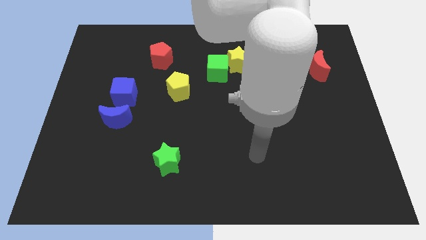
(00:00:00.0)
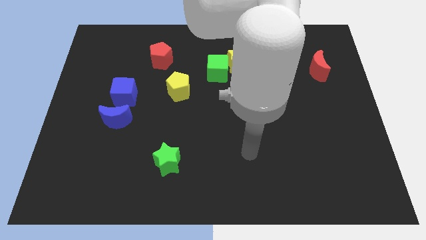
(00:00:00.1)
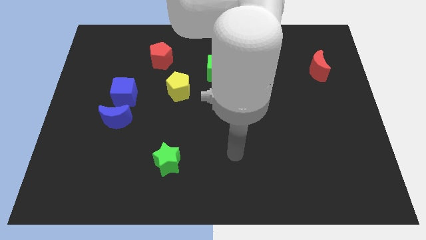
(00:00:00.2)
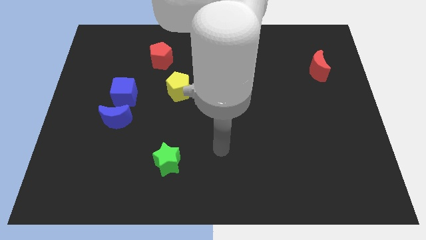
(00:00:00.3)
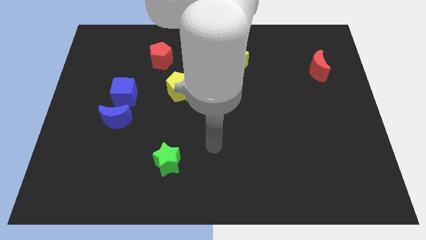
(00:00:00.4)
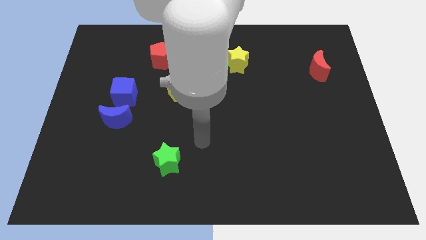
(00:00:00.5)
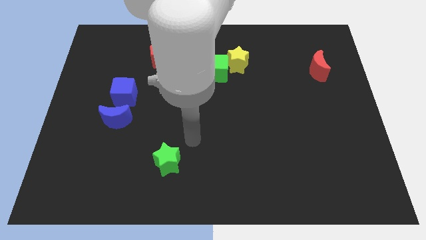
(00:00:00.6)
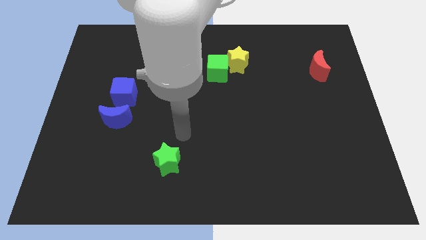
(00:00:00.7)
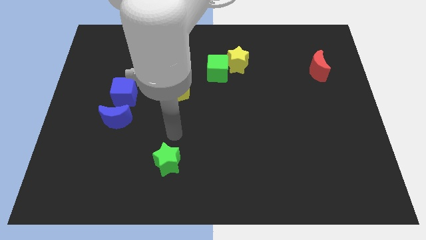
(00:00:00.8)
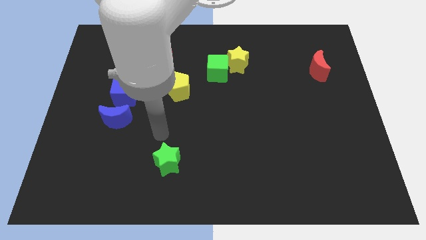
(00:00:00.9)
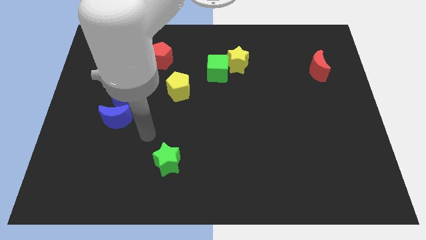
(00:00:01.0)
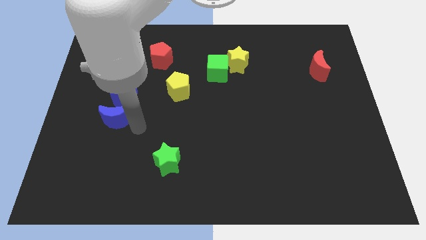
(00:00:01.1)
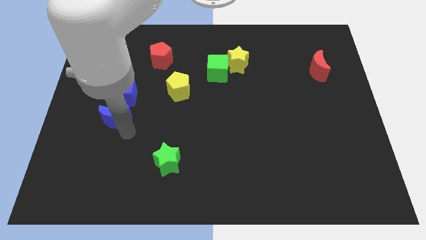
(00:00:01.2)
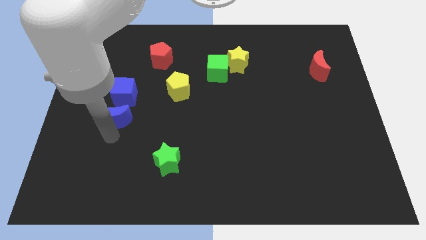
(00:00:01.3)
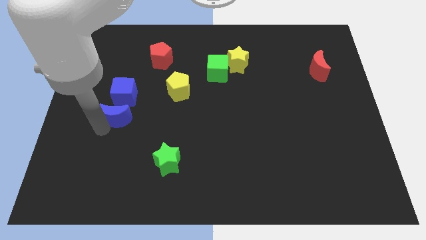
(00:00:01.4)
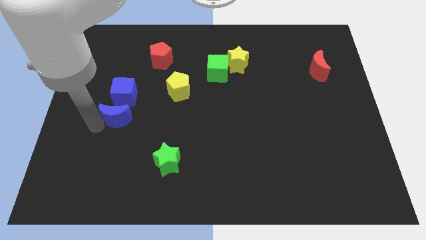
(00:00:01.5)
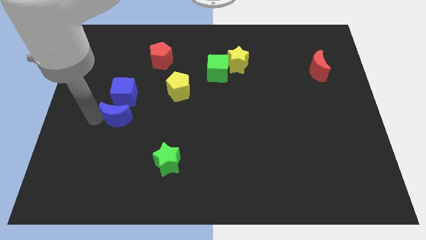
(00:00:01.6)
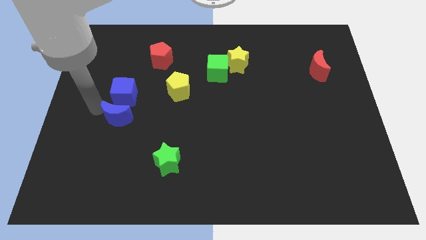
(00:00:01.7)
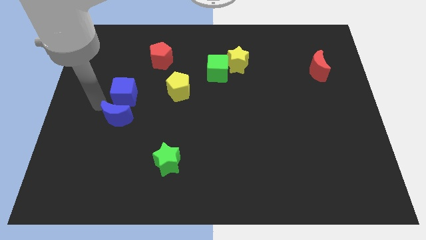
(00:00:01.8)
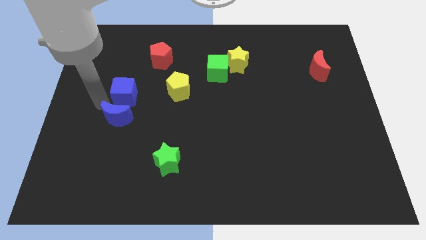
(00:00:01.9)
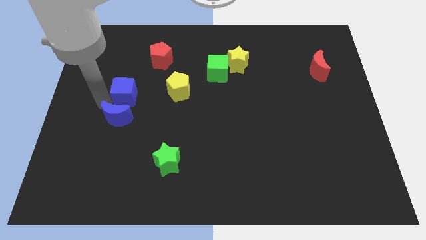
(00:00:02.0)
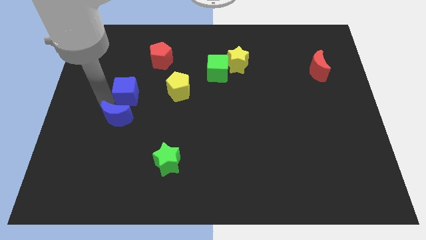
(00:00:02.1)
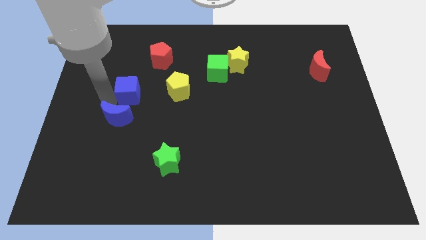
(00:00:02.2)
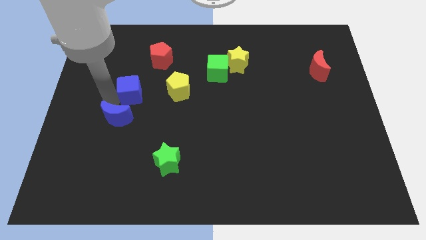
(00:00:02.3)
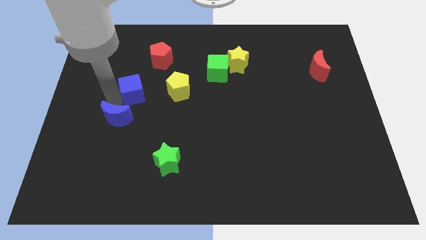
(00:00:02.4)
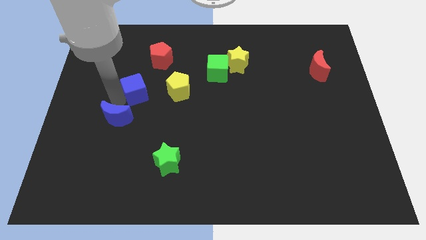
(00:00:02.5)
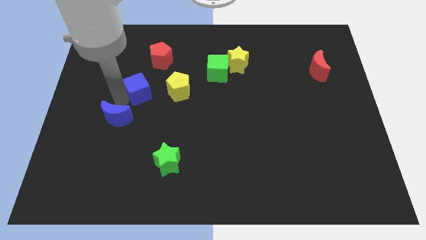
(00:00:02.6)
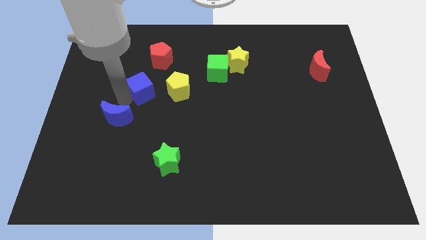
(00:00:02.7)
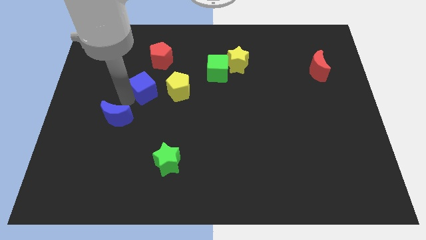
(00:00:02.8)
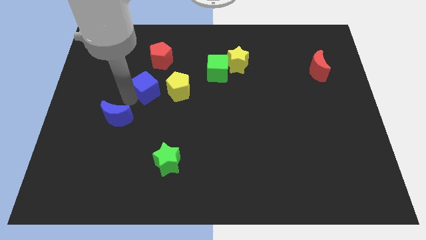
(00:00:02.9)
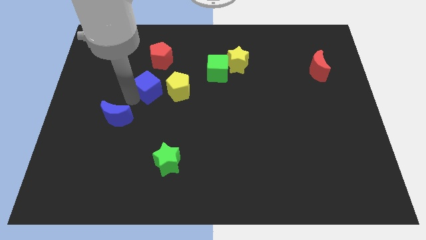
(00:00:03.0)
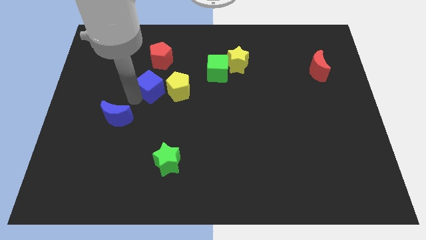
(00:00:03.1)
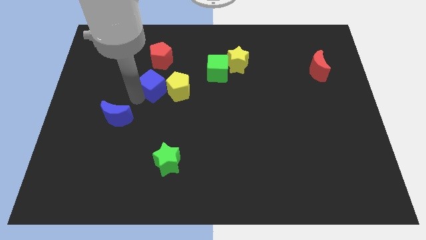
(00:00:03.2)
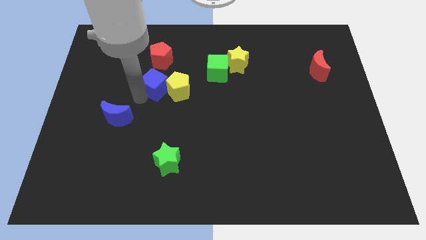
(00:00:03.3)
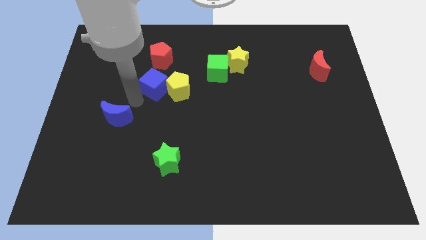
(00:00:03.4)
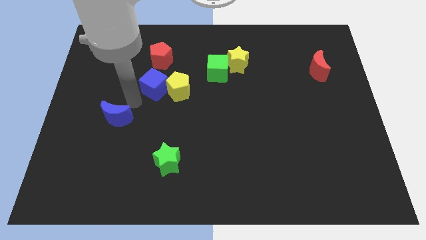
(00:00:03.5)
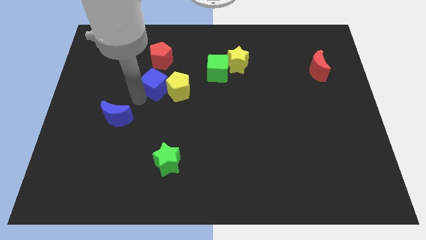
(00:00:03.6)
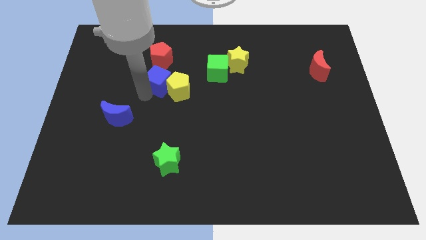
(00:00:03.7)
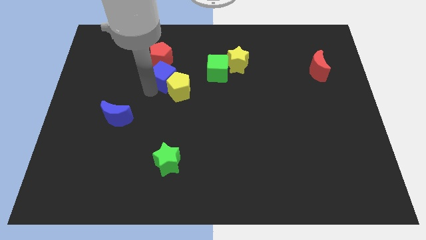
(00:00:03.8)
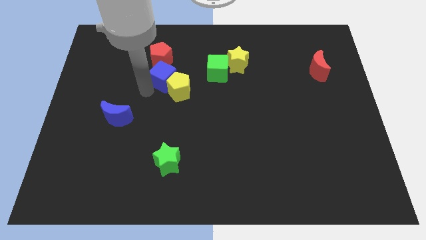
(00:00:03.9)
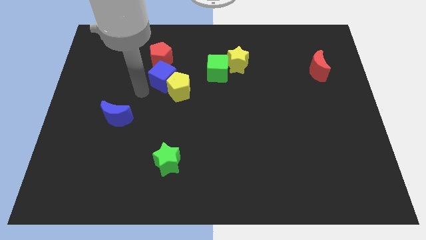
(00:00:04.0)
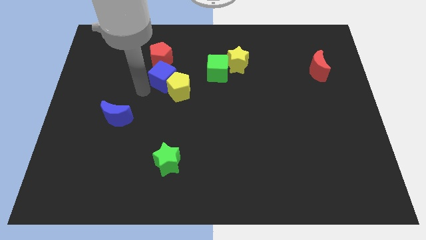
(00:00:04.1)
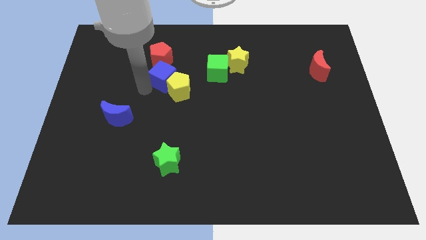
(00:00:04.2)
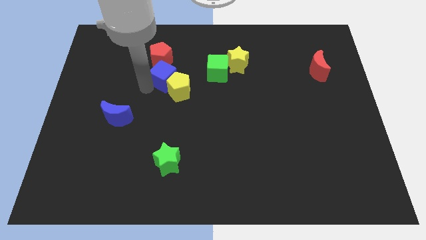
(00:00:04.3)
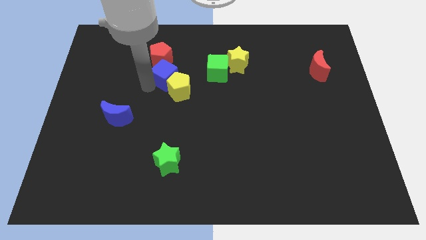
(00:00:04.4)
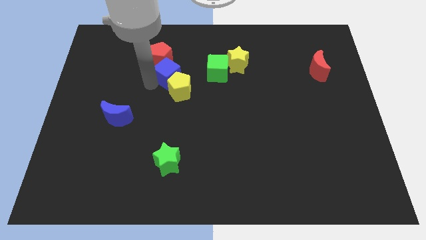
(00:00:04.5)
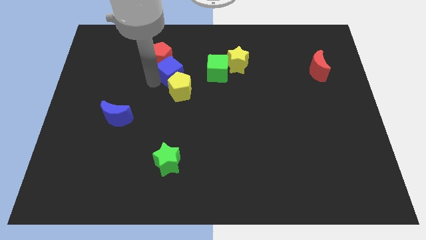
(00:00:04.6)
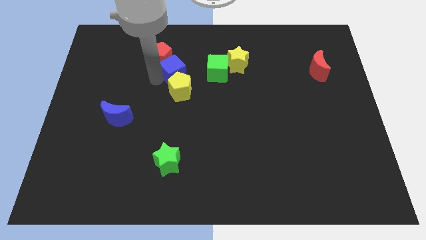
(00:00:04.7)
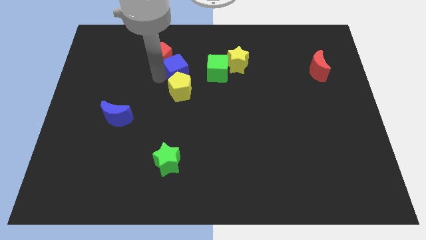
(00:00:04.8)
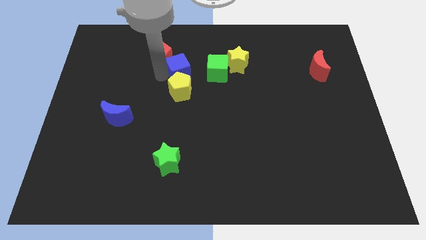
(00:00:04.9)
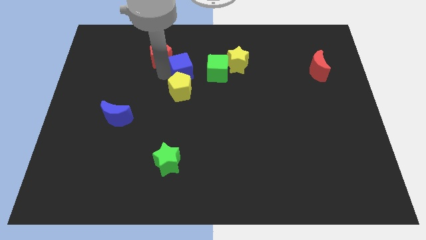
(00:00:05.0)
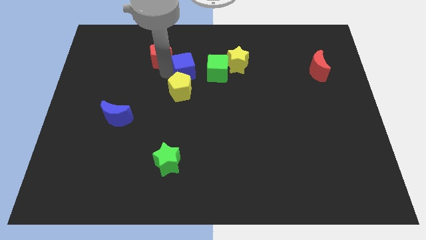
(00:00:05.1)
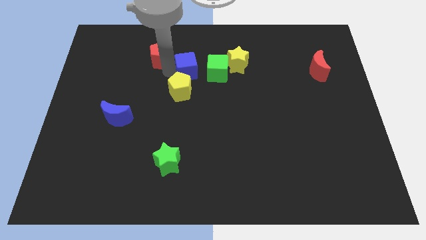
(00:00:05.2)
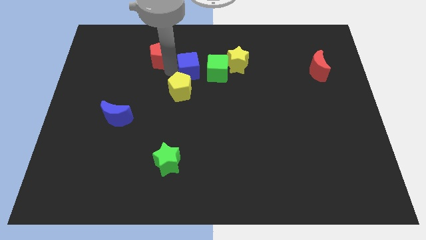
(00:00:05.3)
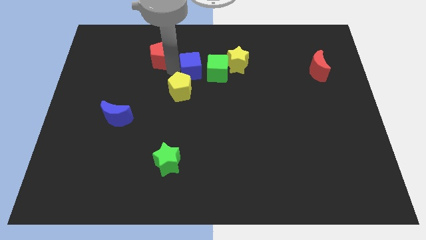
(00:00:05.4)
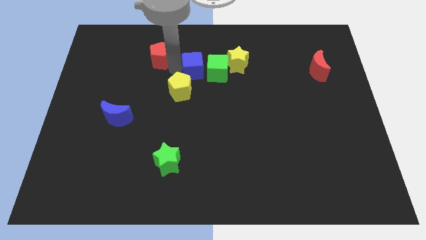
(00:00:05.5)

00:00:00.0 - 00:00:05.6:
move the blue cube next to the green cube

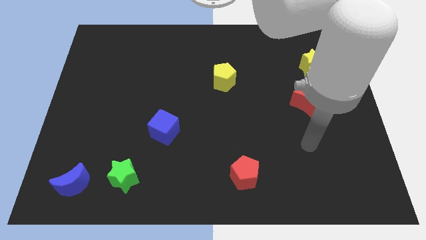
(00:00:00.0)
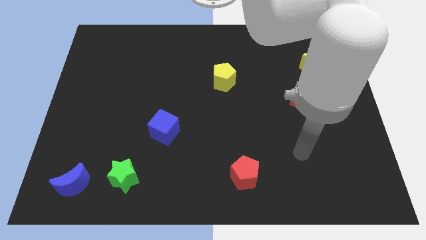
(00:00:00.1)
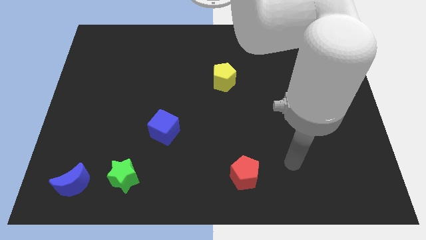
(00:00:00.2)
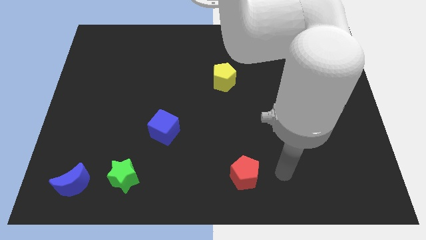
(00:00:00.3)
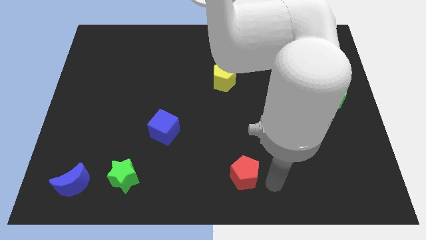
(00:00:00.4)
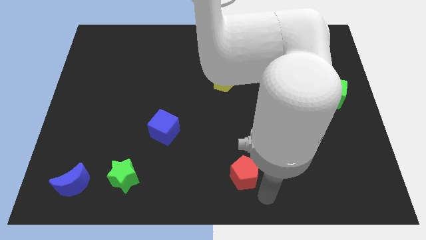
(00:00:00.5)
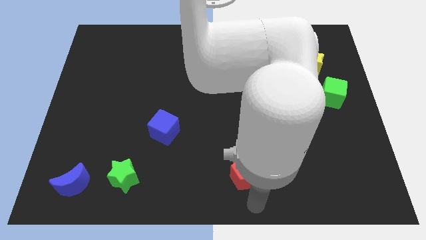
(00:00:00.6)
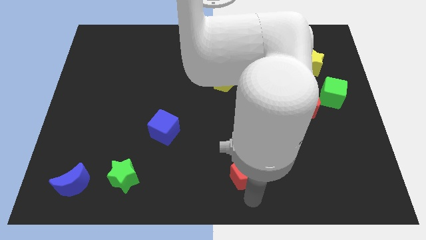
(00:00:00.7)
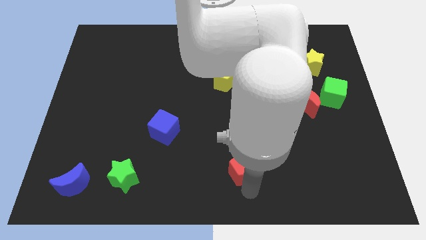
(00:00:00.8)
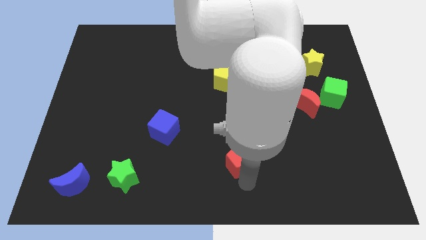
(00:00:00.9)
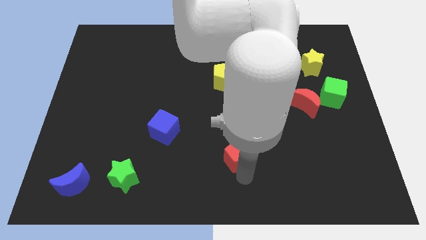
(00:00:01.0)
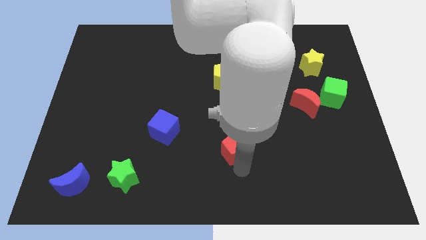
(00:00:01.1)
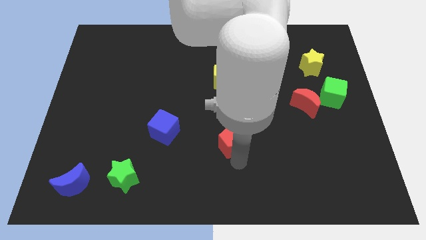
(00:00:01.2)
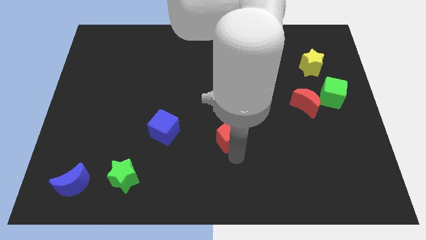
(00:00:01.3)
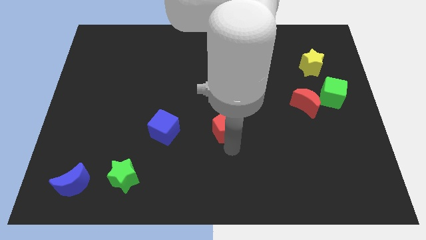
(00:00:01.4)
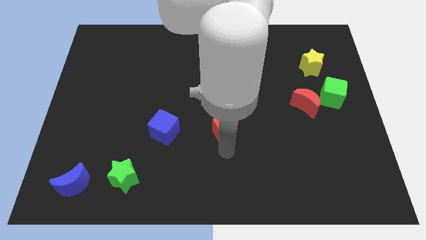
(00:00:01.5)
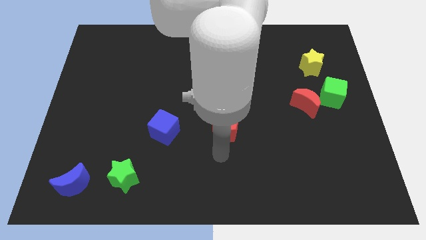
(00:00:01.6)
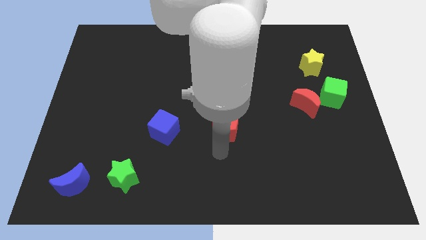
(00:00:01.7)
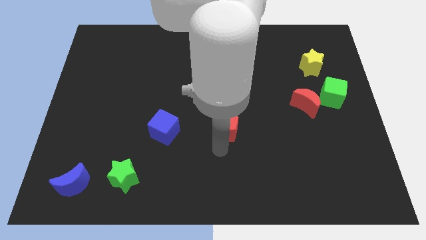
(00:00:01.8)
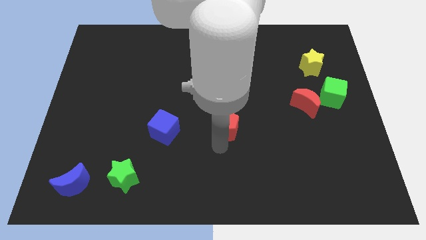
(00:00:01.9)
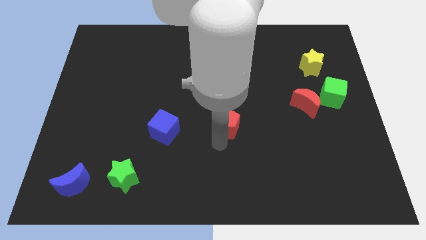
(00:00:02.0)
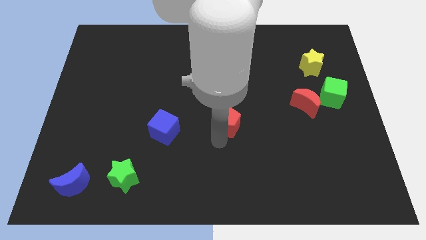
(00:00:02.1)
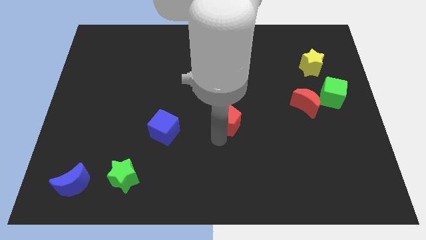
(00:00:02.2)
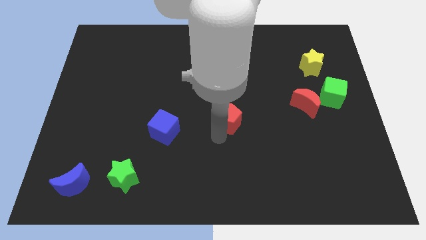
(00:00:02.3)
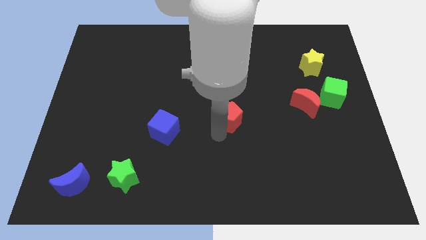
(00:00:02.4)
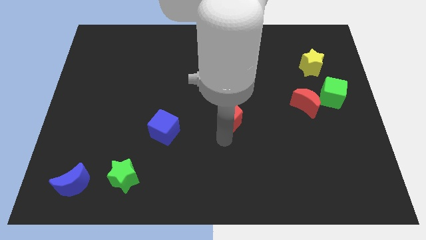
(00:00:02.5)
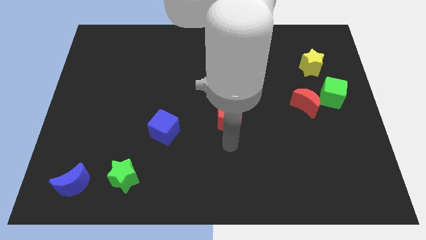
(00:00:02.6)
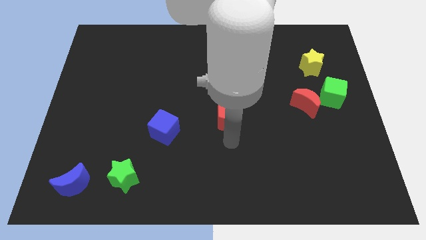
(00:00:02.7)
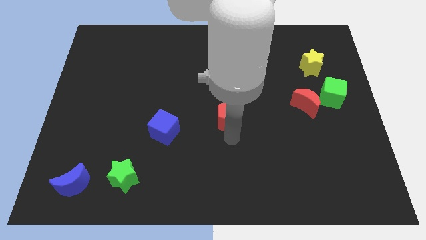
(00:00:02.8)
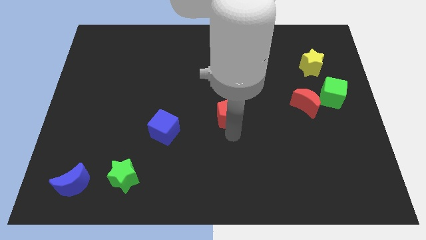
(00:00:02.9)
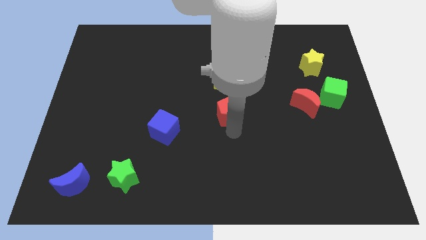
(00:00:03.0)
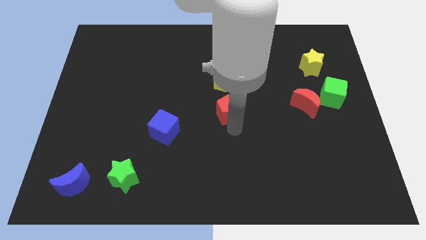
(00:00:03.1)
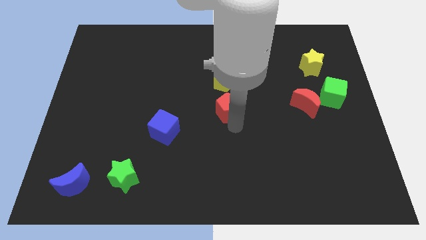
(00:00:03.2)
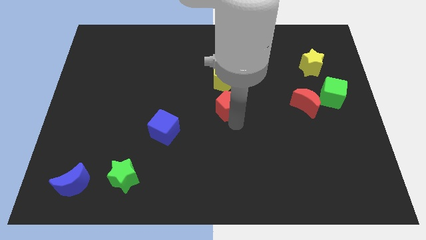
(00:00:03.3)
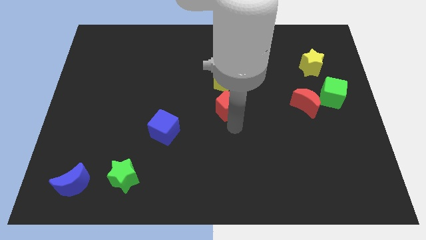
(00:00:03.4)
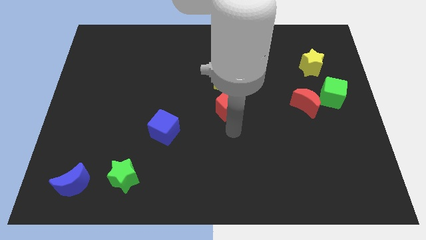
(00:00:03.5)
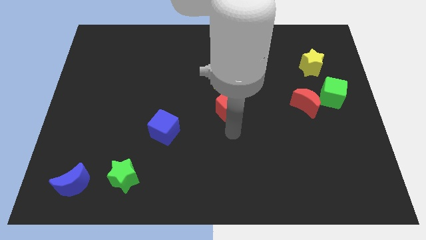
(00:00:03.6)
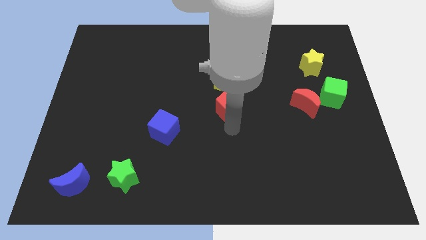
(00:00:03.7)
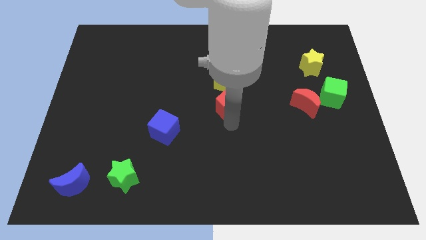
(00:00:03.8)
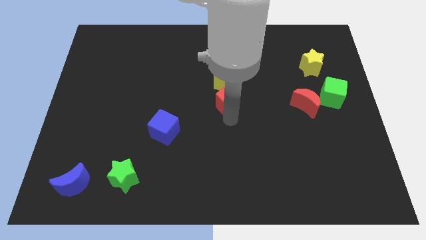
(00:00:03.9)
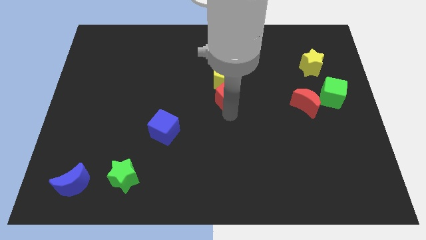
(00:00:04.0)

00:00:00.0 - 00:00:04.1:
put the red pentagon towards the yellow pentagon
